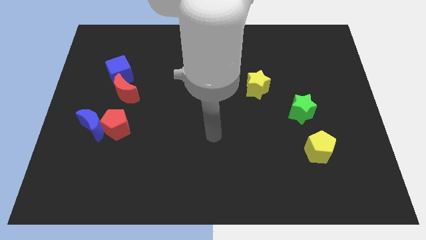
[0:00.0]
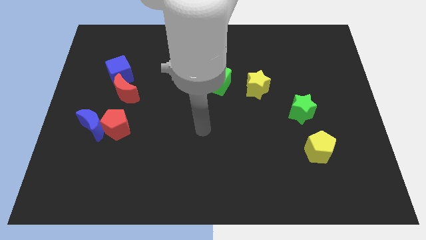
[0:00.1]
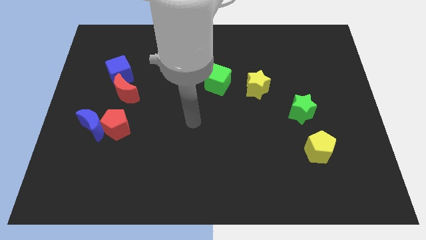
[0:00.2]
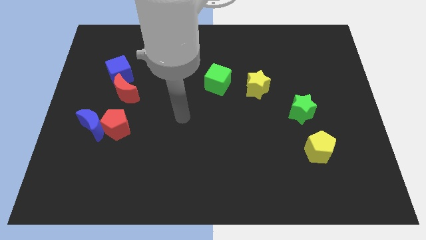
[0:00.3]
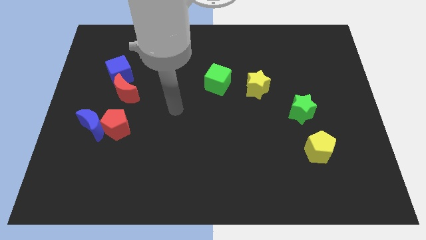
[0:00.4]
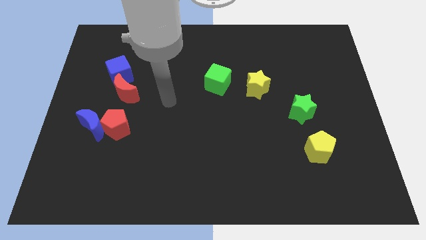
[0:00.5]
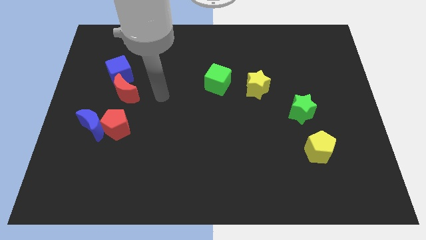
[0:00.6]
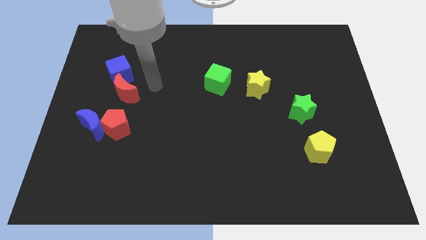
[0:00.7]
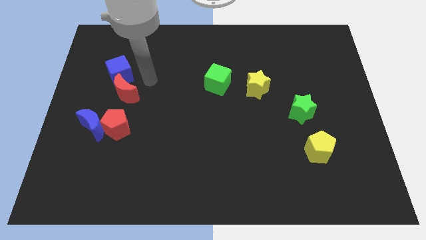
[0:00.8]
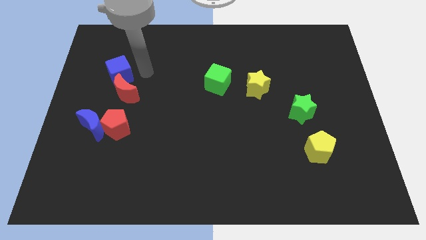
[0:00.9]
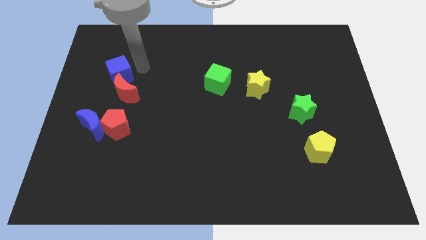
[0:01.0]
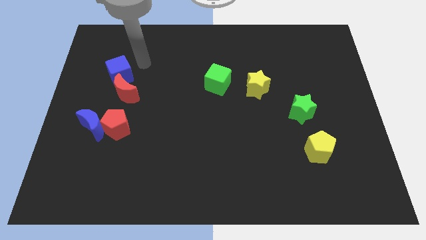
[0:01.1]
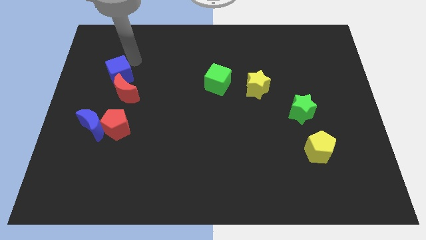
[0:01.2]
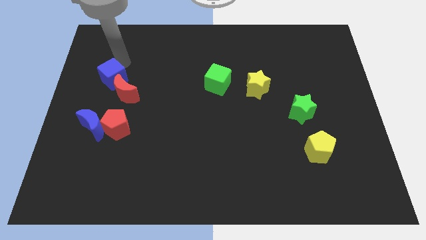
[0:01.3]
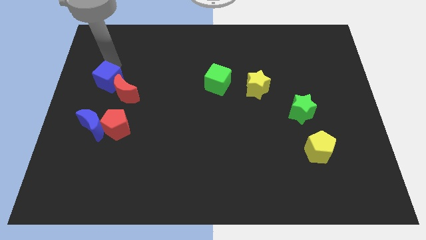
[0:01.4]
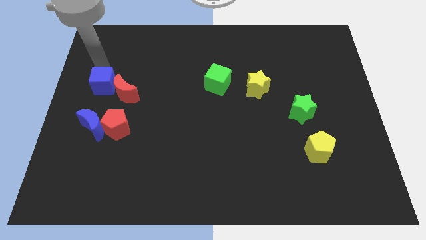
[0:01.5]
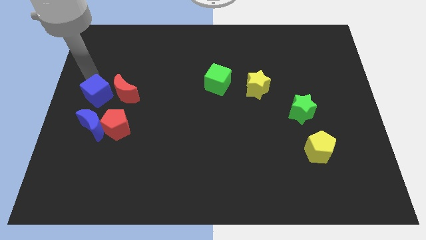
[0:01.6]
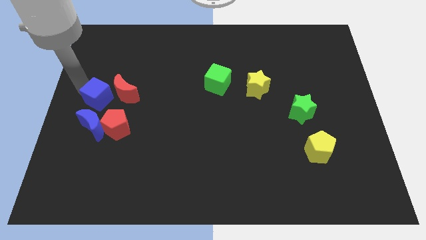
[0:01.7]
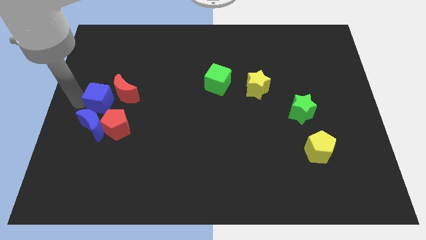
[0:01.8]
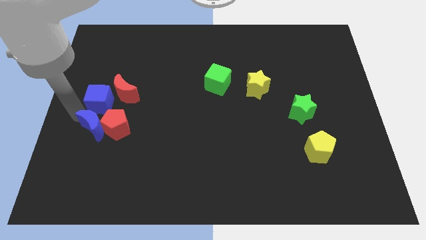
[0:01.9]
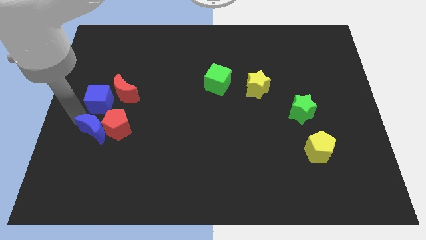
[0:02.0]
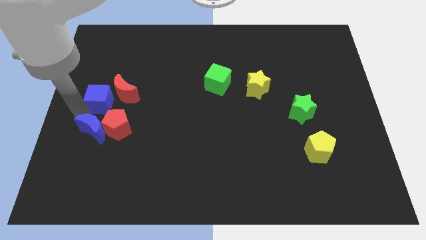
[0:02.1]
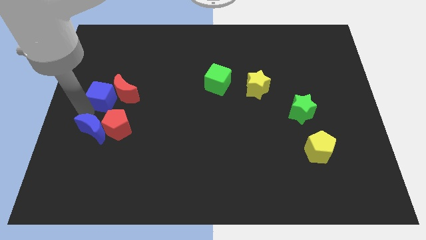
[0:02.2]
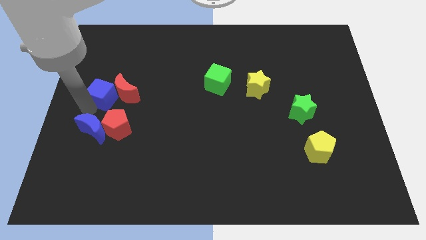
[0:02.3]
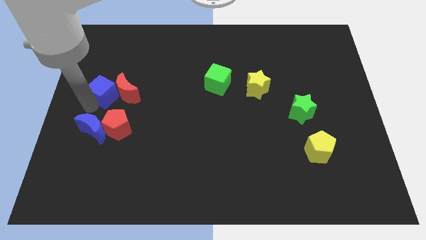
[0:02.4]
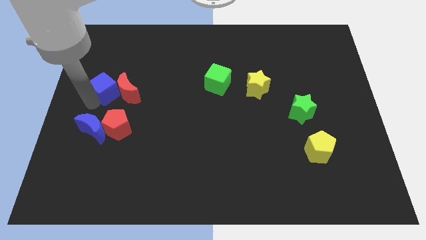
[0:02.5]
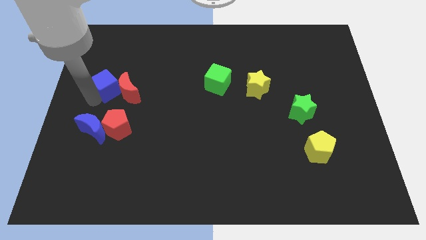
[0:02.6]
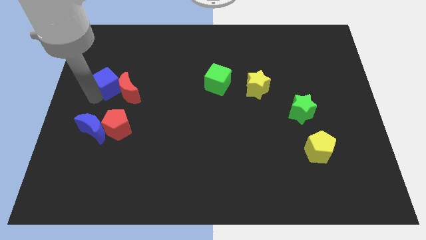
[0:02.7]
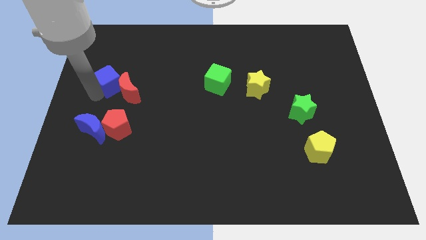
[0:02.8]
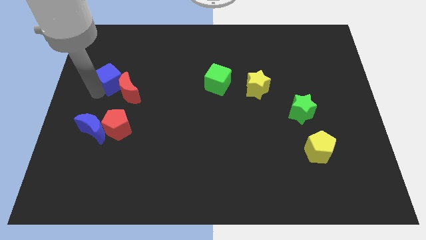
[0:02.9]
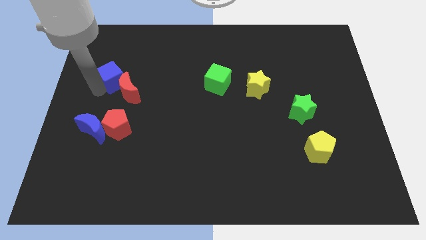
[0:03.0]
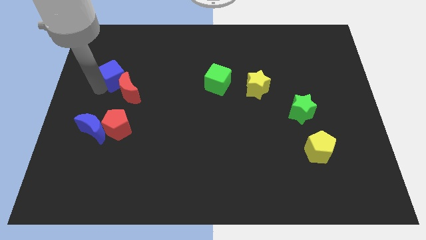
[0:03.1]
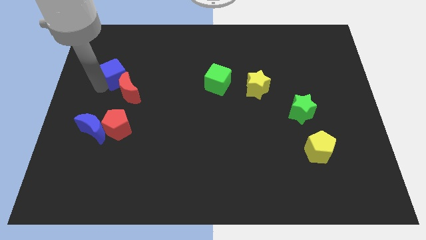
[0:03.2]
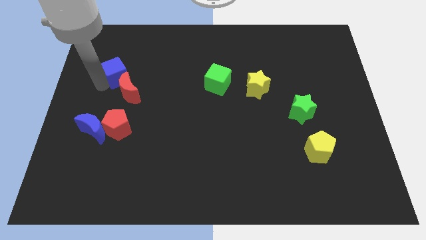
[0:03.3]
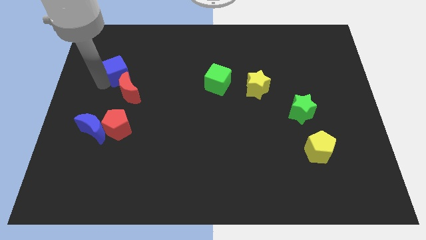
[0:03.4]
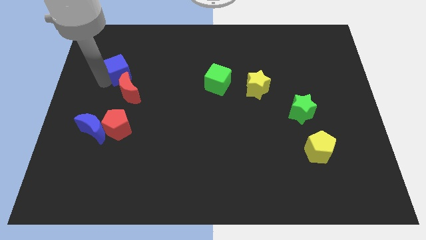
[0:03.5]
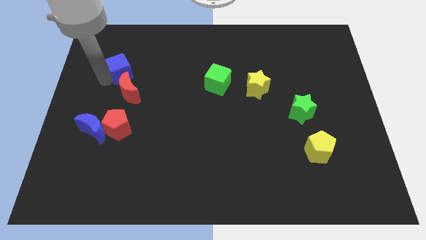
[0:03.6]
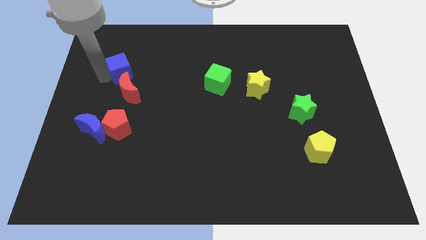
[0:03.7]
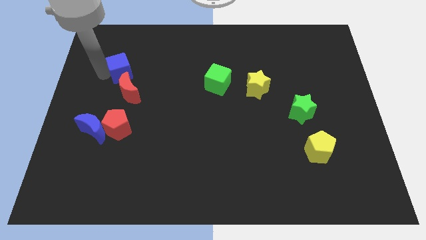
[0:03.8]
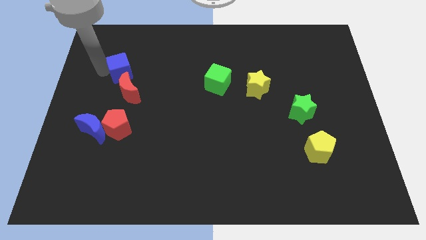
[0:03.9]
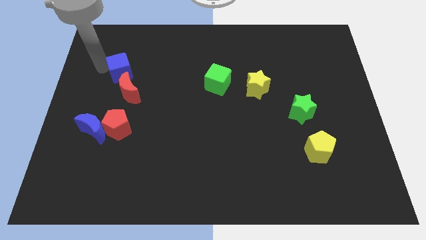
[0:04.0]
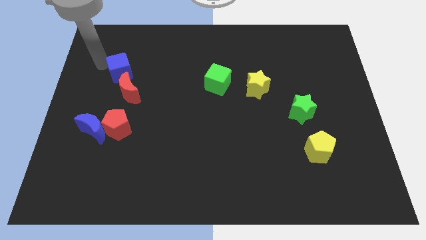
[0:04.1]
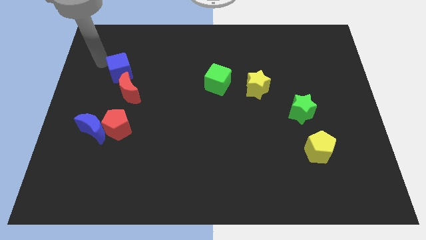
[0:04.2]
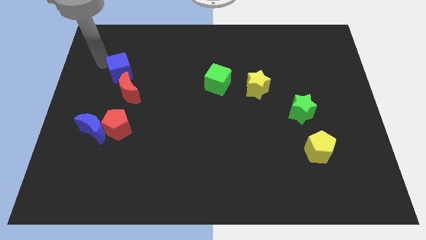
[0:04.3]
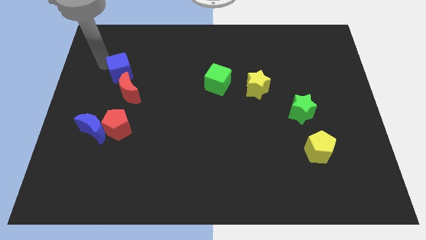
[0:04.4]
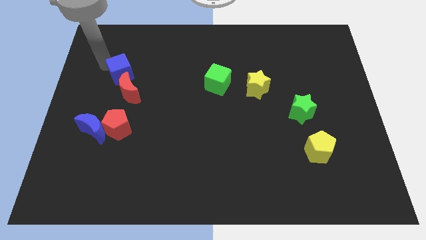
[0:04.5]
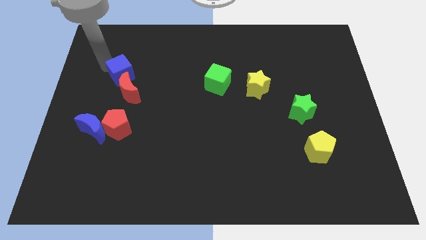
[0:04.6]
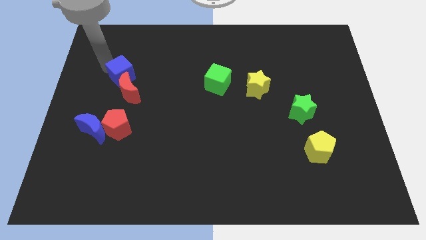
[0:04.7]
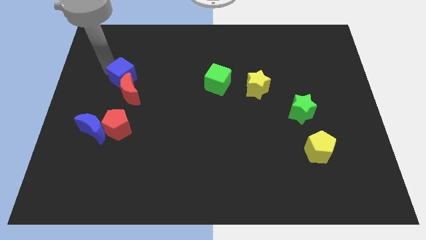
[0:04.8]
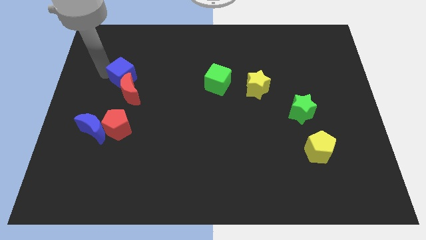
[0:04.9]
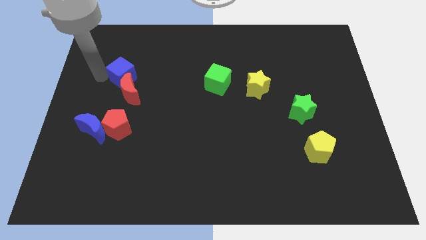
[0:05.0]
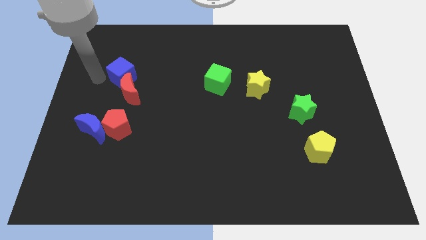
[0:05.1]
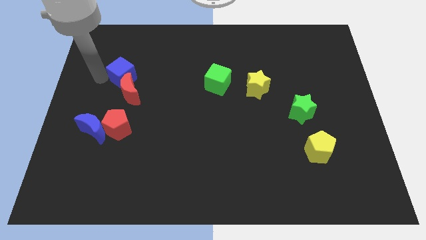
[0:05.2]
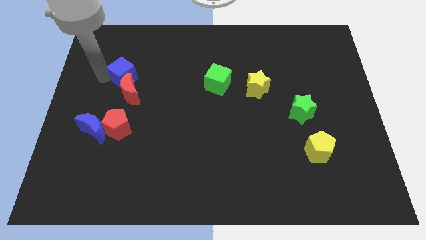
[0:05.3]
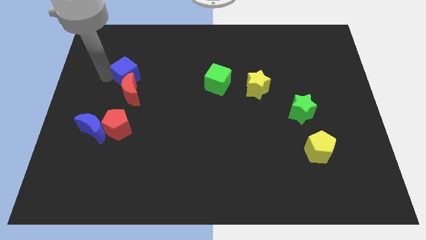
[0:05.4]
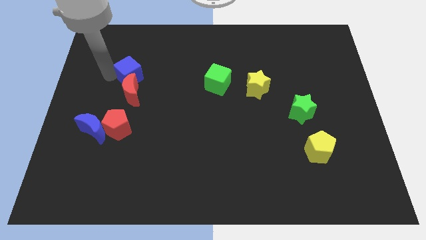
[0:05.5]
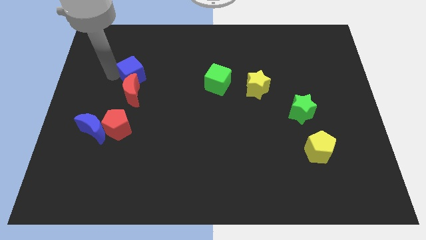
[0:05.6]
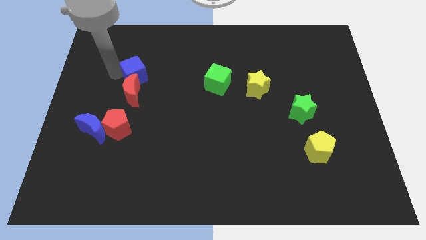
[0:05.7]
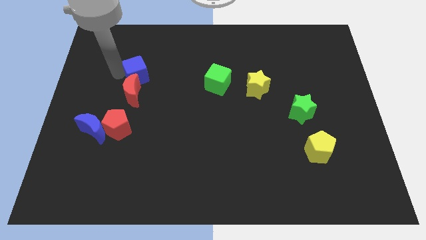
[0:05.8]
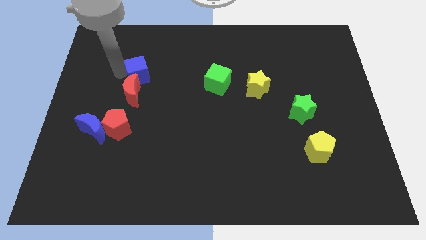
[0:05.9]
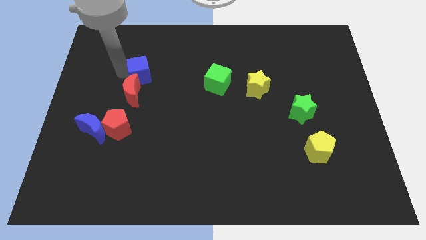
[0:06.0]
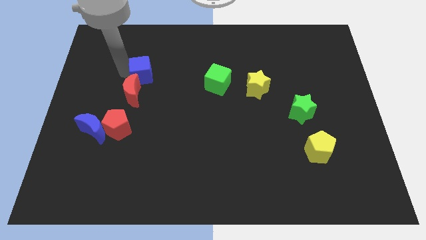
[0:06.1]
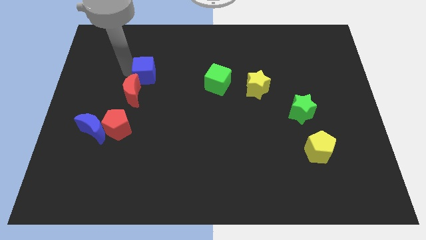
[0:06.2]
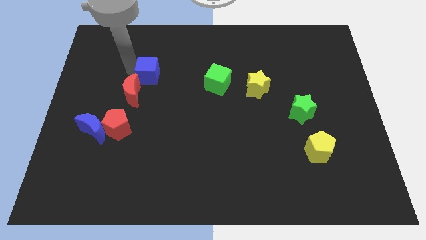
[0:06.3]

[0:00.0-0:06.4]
move the blue cube right a bit

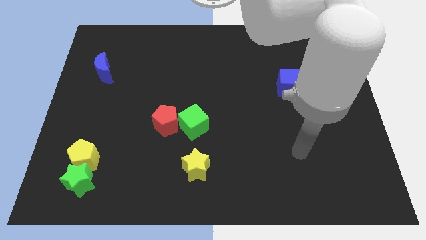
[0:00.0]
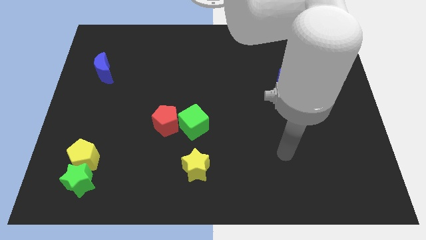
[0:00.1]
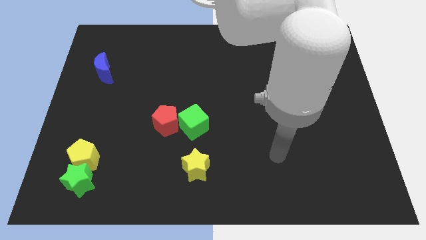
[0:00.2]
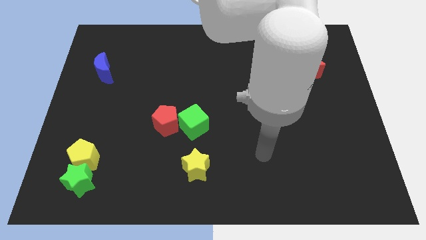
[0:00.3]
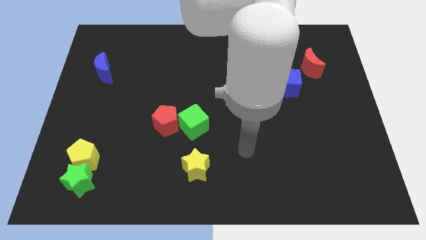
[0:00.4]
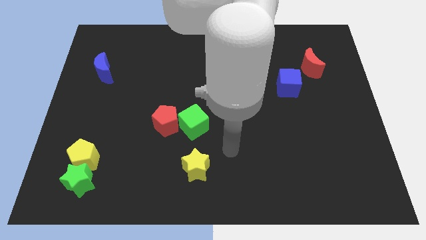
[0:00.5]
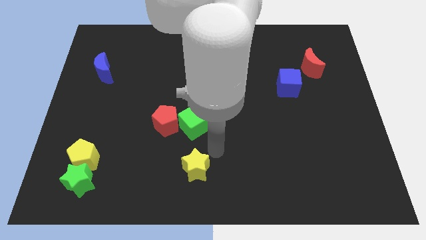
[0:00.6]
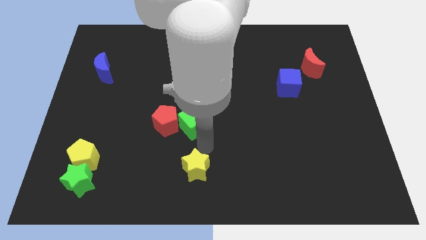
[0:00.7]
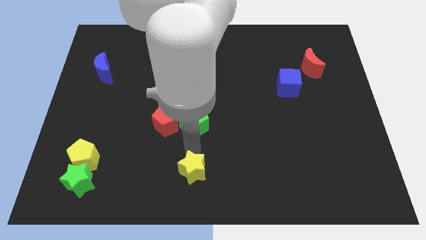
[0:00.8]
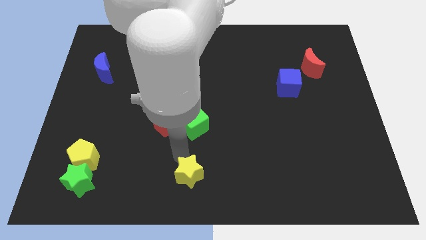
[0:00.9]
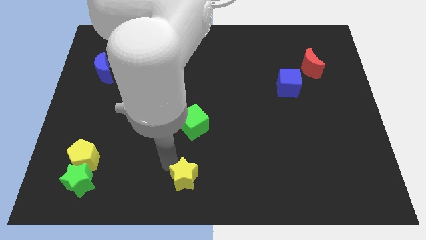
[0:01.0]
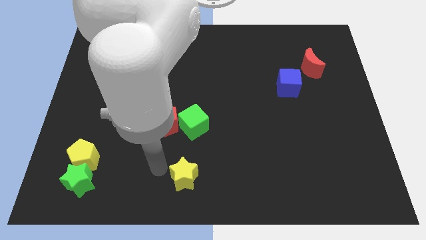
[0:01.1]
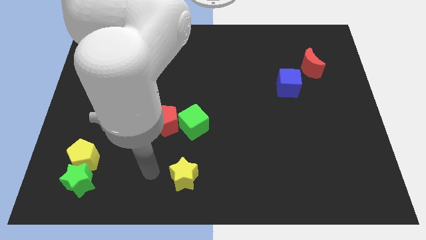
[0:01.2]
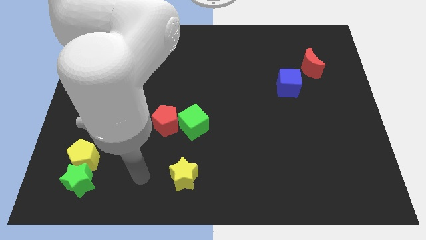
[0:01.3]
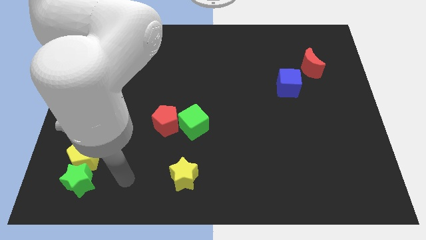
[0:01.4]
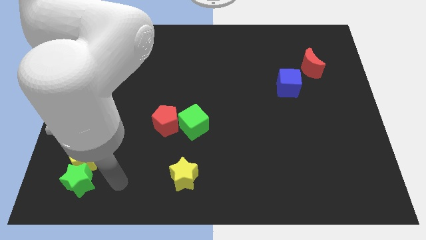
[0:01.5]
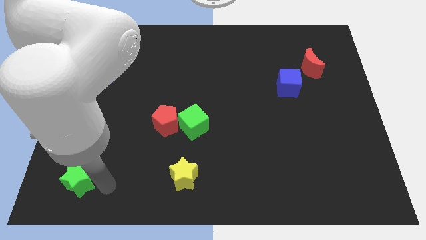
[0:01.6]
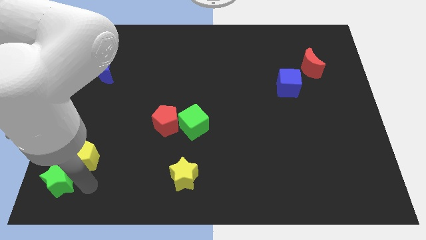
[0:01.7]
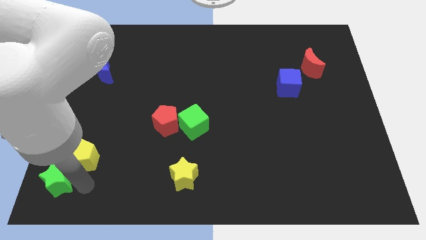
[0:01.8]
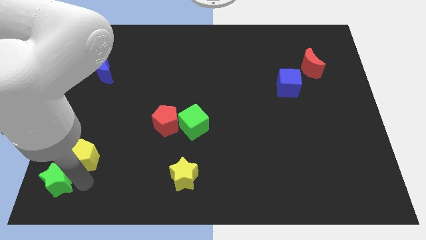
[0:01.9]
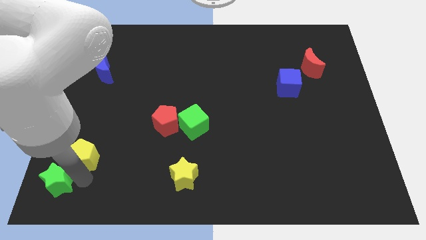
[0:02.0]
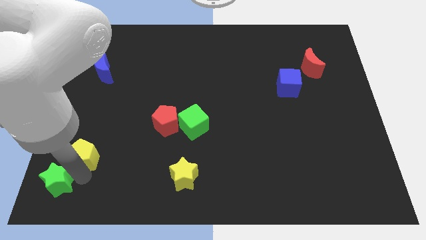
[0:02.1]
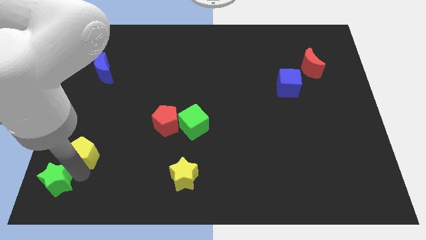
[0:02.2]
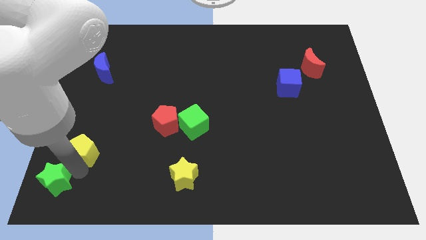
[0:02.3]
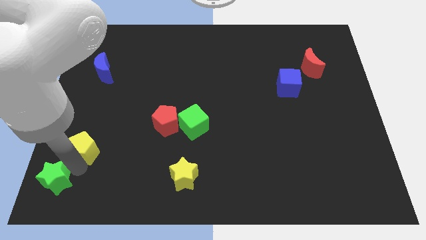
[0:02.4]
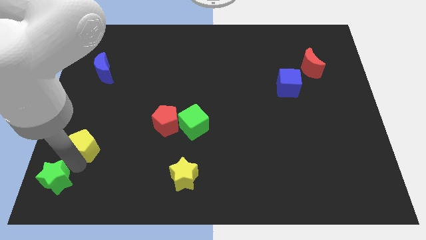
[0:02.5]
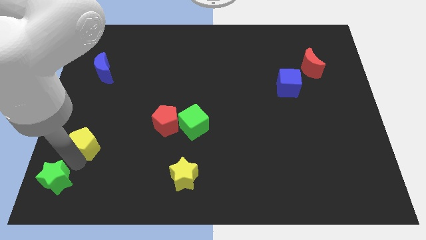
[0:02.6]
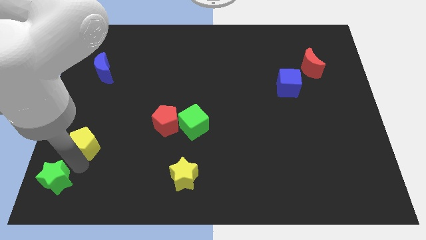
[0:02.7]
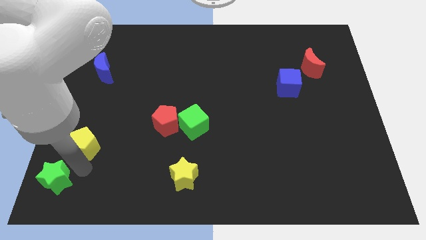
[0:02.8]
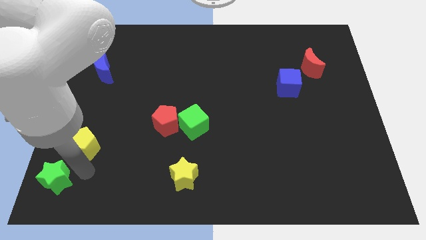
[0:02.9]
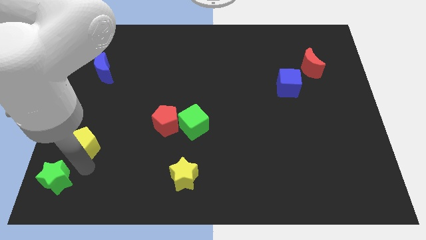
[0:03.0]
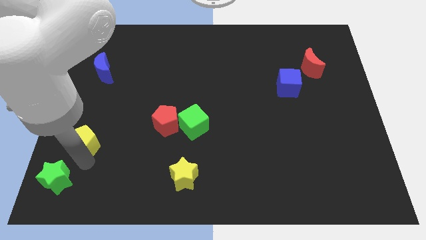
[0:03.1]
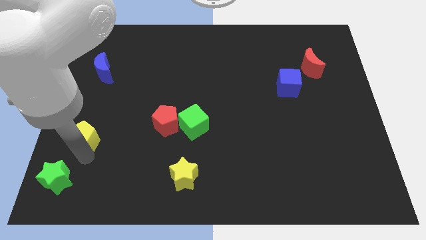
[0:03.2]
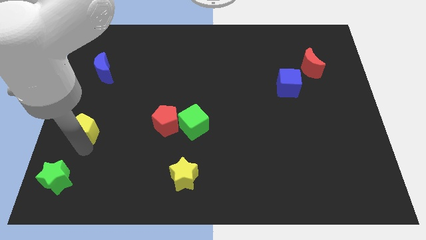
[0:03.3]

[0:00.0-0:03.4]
move the yellow pentagon up a little
